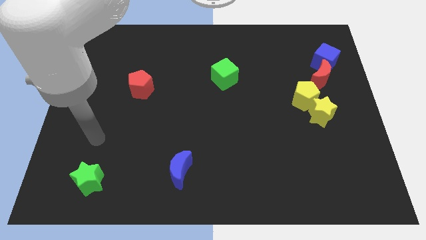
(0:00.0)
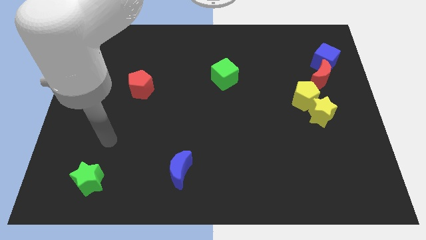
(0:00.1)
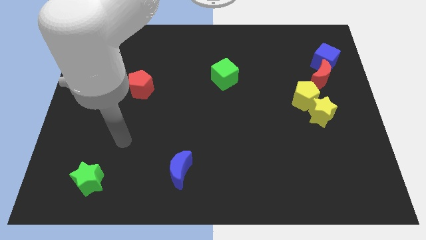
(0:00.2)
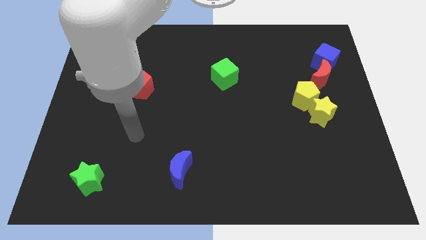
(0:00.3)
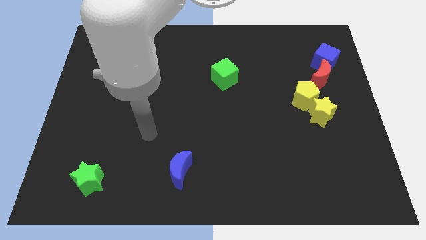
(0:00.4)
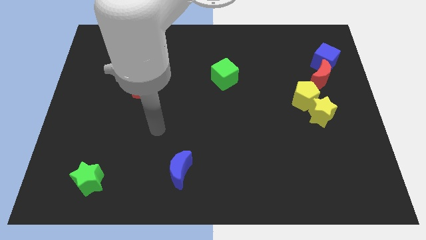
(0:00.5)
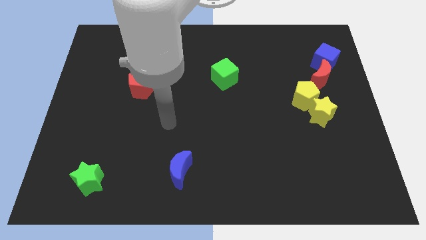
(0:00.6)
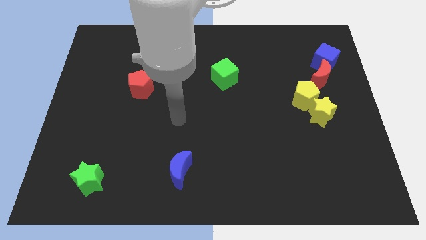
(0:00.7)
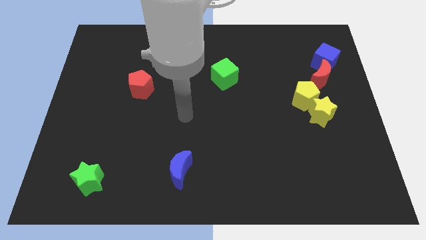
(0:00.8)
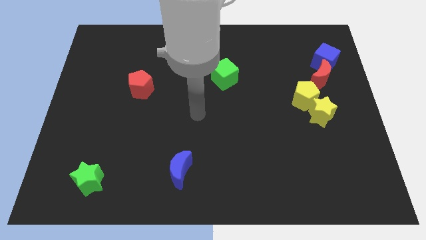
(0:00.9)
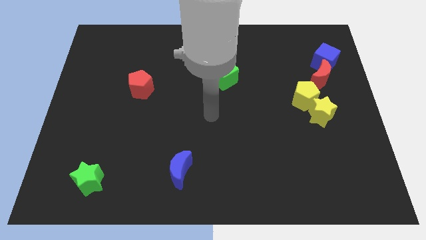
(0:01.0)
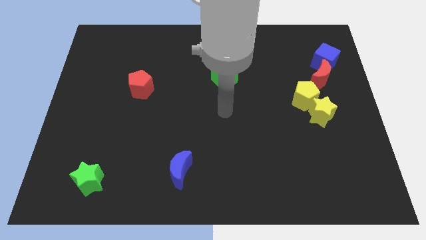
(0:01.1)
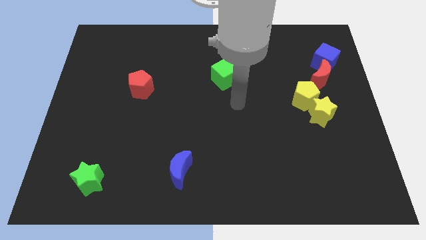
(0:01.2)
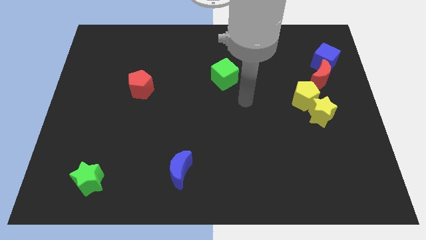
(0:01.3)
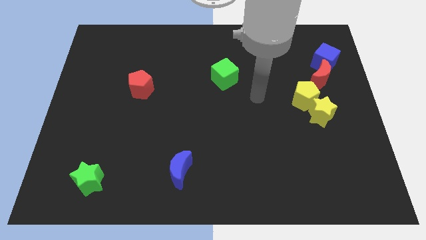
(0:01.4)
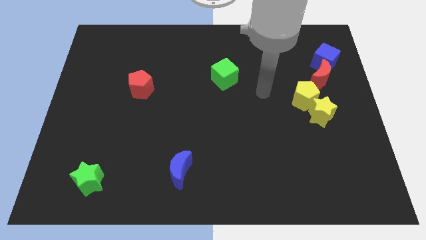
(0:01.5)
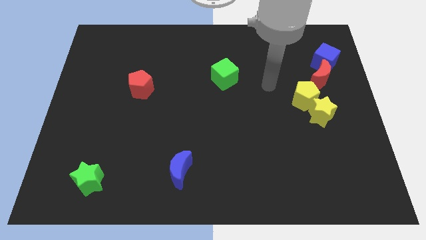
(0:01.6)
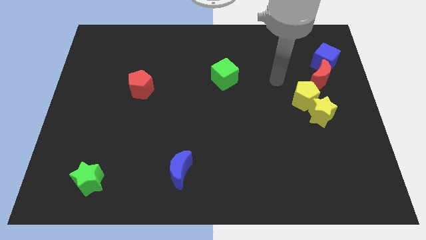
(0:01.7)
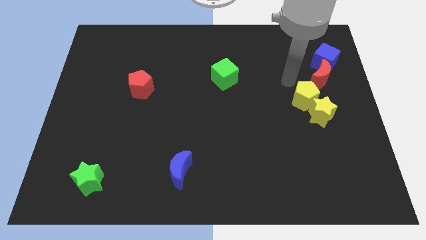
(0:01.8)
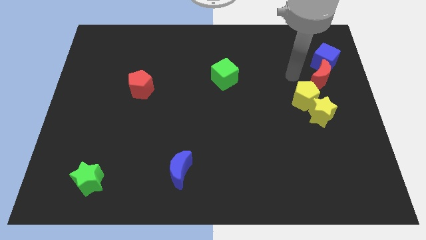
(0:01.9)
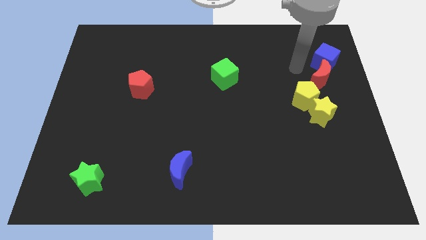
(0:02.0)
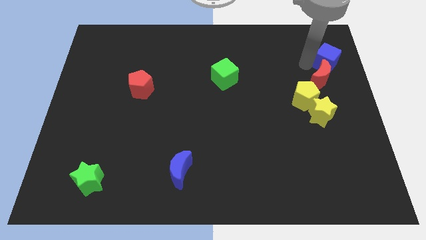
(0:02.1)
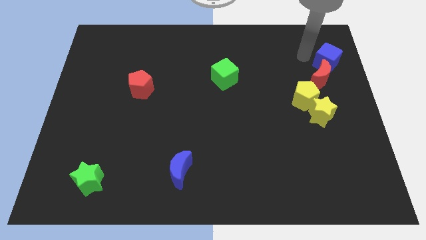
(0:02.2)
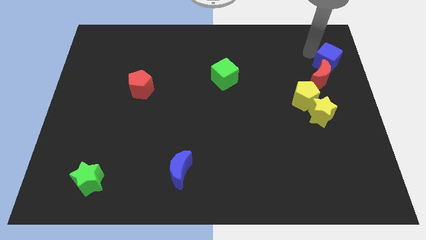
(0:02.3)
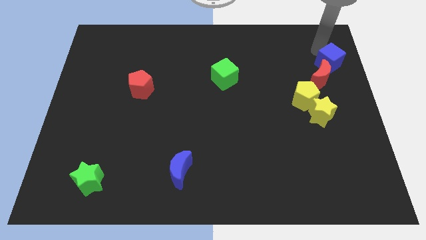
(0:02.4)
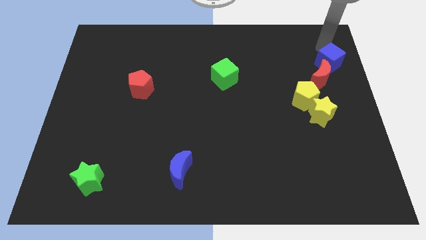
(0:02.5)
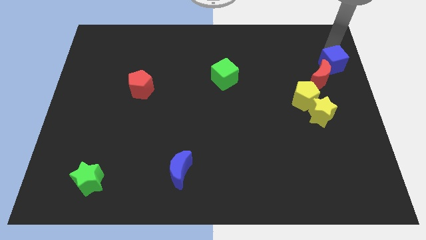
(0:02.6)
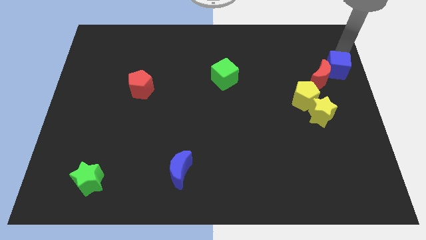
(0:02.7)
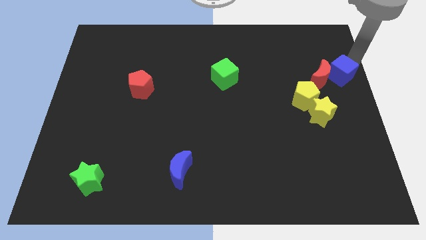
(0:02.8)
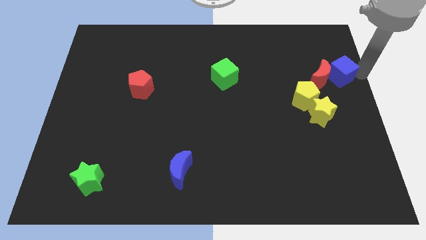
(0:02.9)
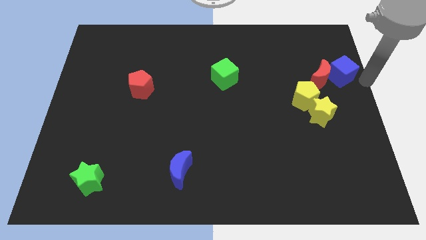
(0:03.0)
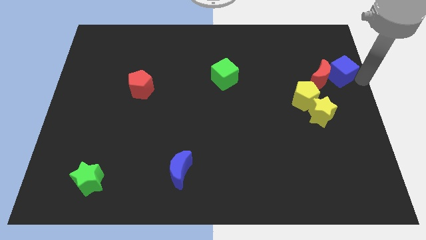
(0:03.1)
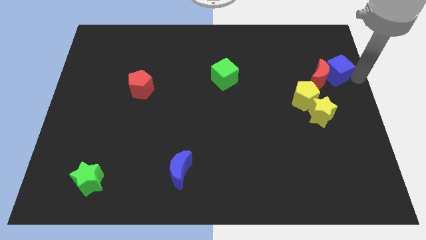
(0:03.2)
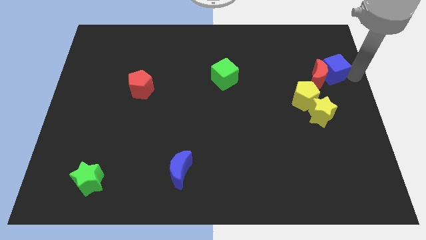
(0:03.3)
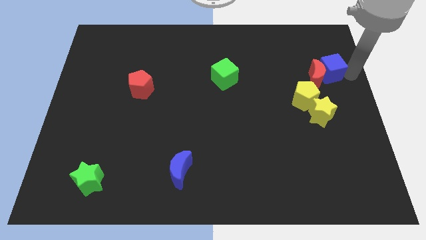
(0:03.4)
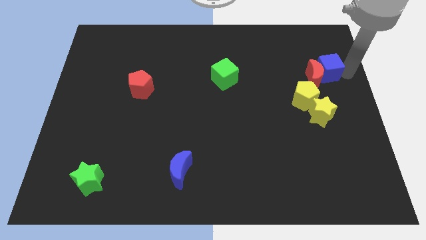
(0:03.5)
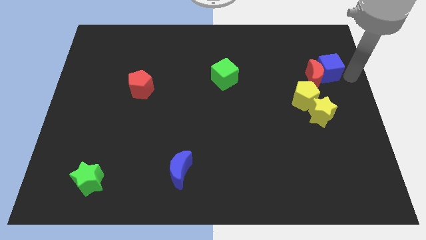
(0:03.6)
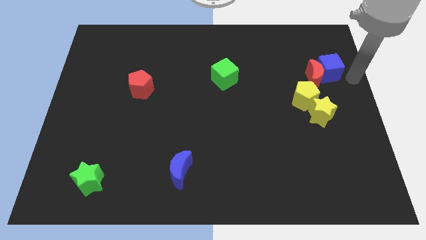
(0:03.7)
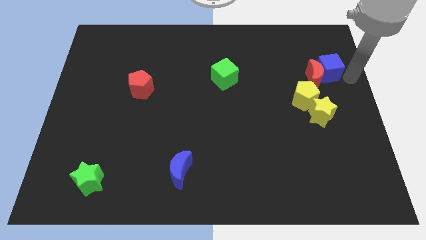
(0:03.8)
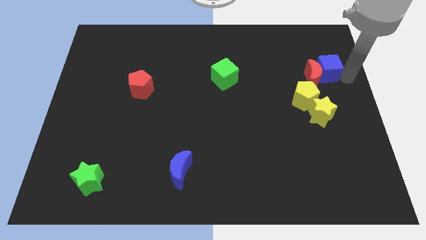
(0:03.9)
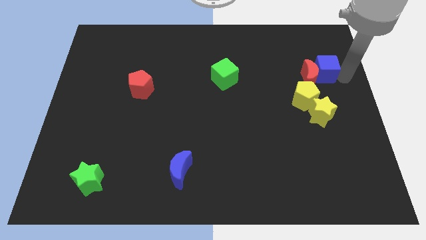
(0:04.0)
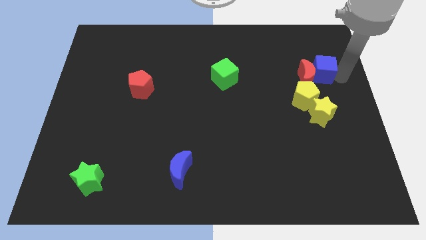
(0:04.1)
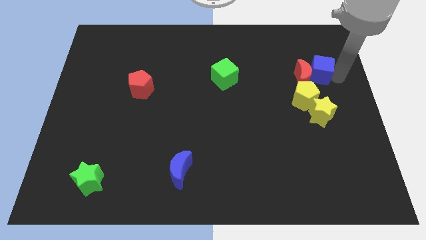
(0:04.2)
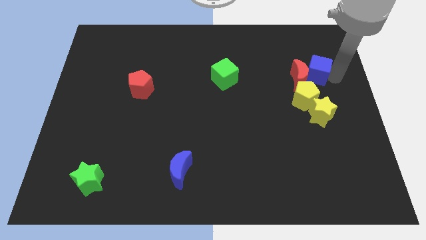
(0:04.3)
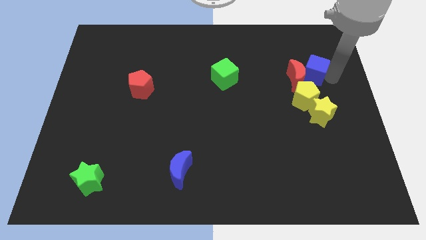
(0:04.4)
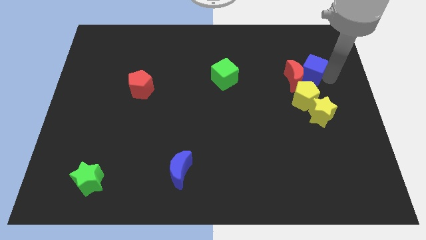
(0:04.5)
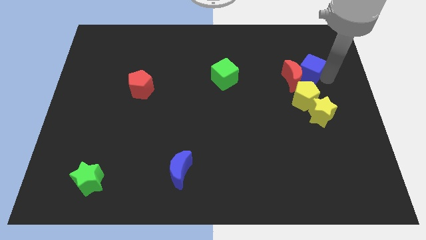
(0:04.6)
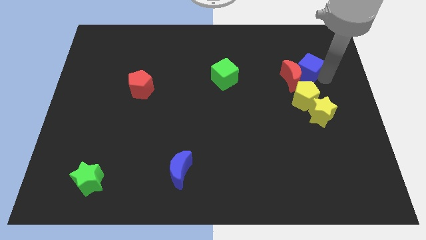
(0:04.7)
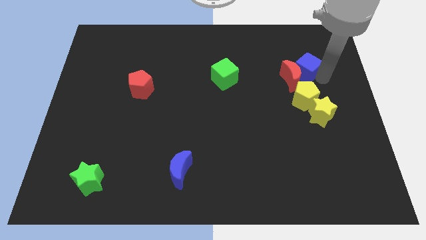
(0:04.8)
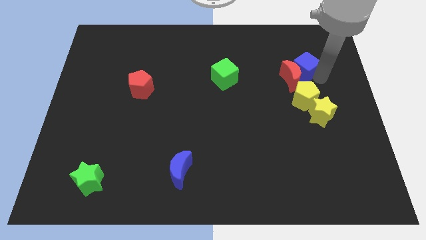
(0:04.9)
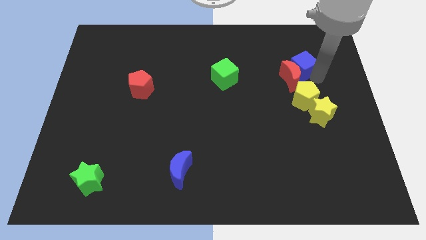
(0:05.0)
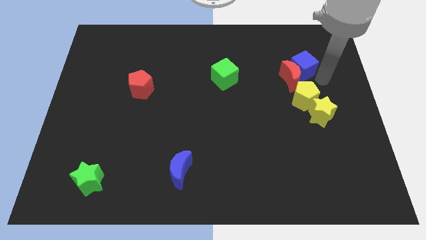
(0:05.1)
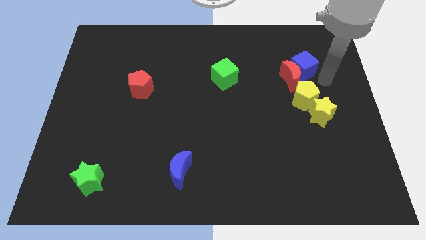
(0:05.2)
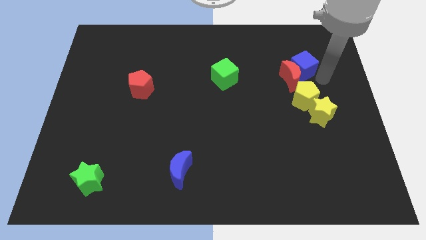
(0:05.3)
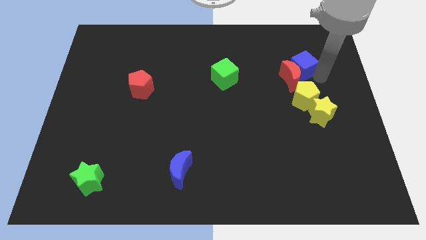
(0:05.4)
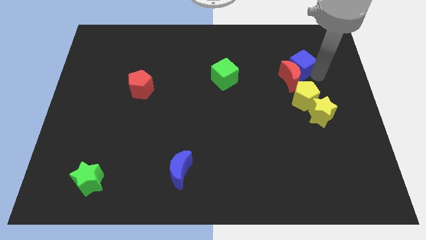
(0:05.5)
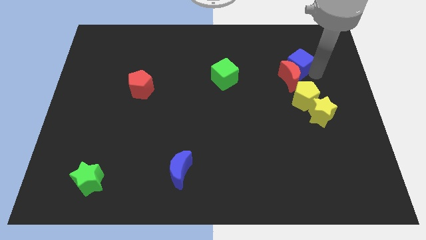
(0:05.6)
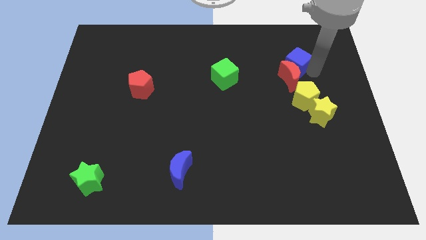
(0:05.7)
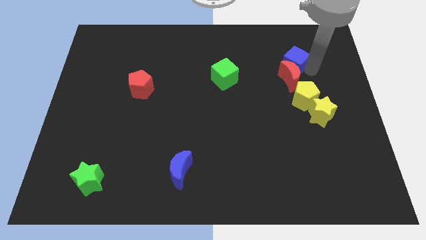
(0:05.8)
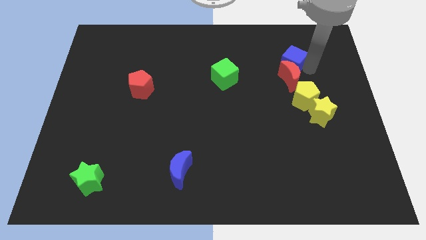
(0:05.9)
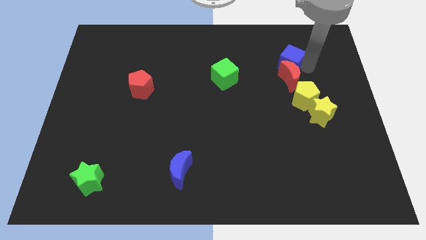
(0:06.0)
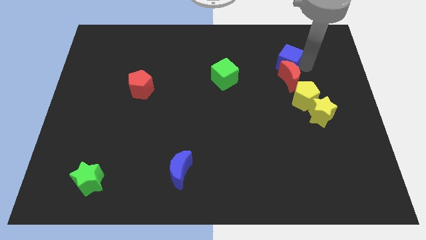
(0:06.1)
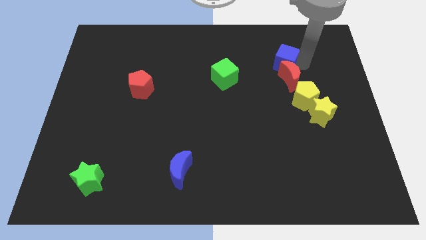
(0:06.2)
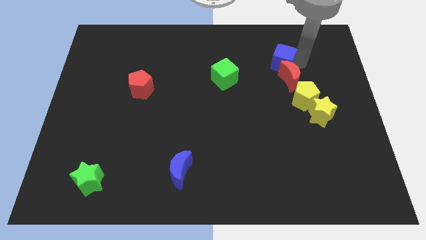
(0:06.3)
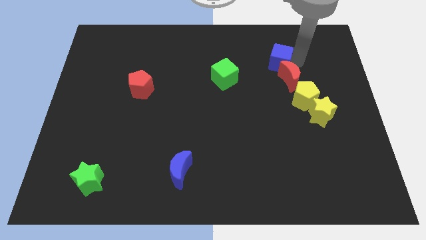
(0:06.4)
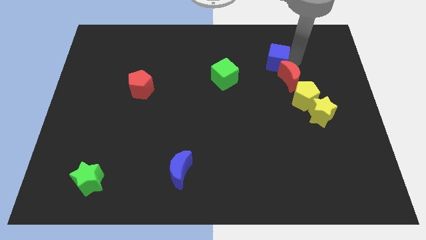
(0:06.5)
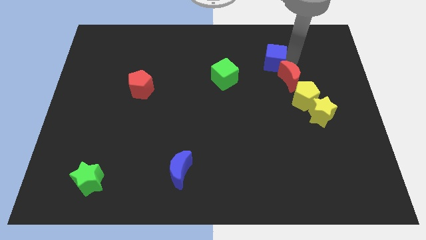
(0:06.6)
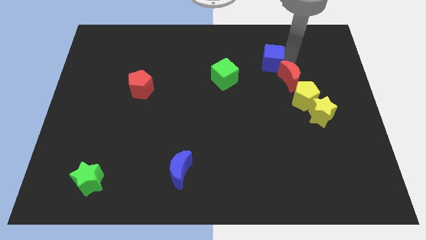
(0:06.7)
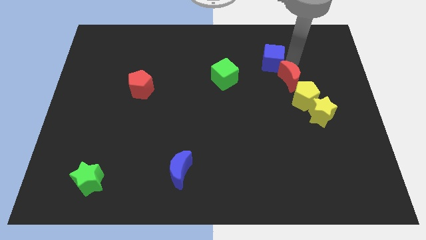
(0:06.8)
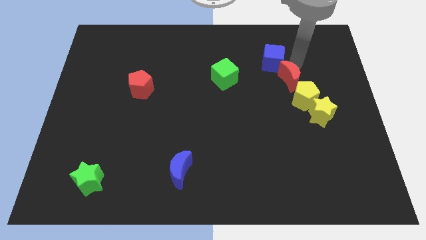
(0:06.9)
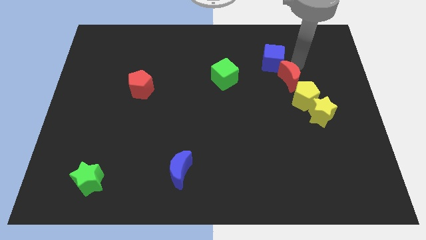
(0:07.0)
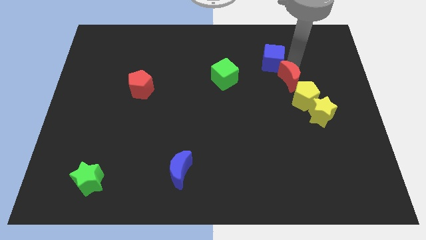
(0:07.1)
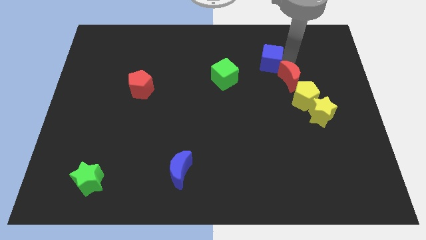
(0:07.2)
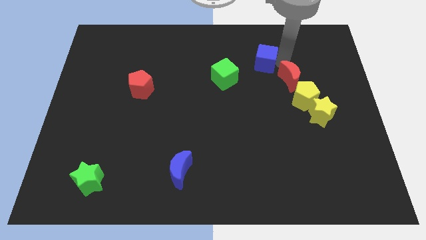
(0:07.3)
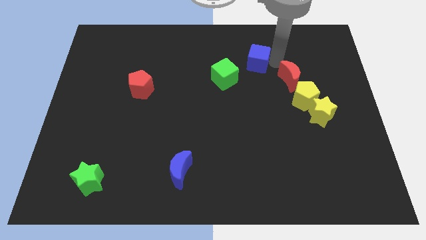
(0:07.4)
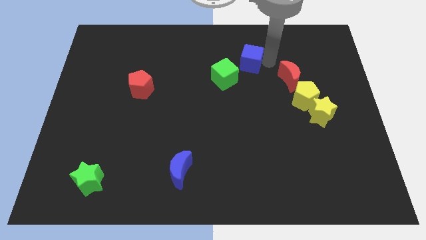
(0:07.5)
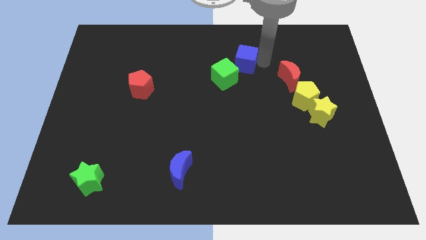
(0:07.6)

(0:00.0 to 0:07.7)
push the blue cube to the left

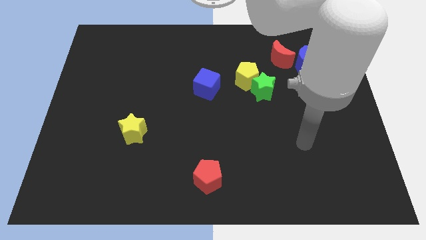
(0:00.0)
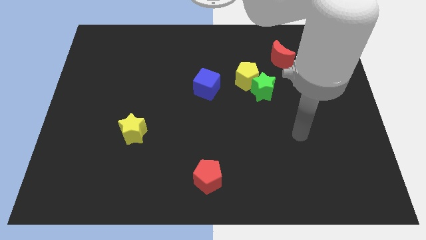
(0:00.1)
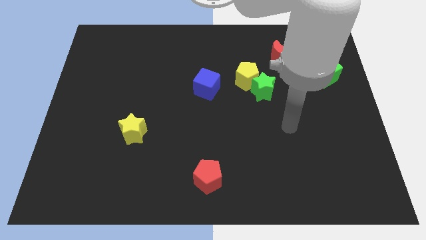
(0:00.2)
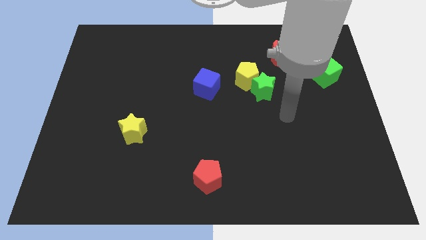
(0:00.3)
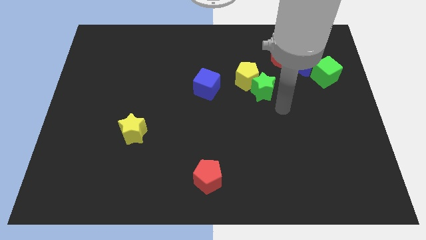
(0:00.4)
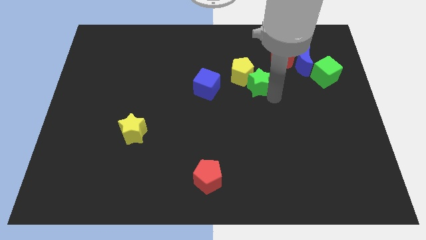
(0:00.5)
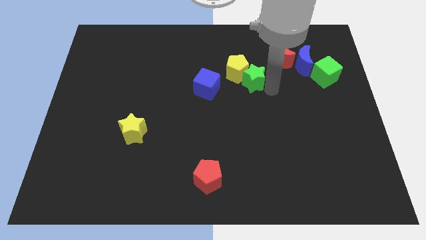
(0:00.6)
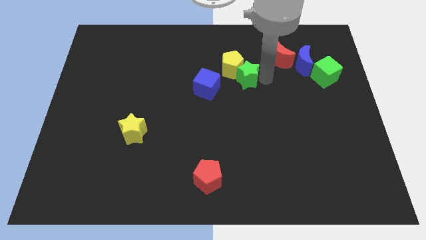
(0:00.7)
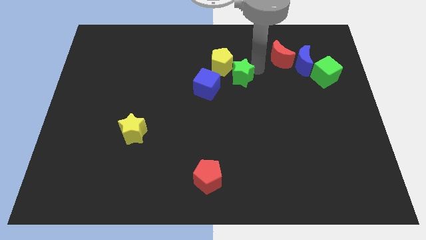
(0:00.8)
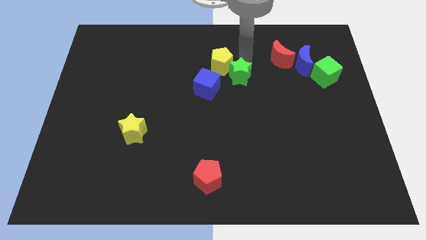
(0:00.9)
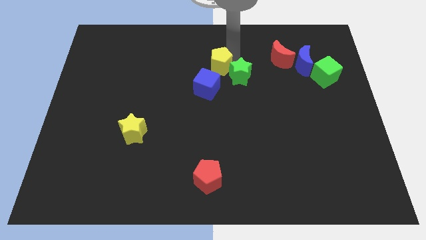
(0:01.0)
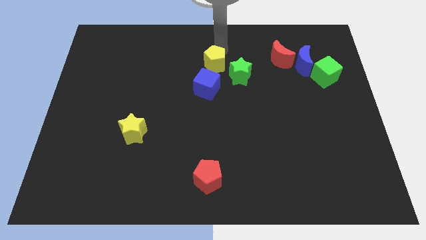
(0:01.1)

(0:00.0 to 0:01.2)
slightly slide the yellow pentagon to the left
